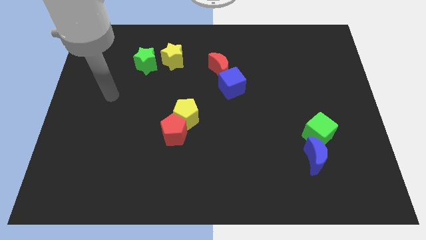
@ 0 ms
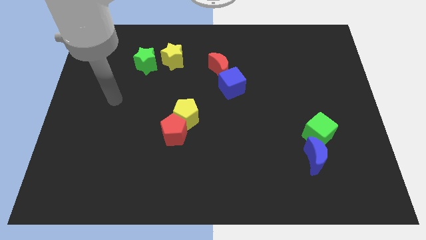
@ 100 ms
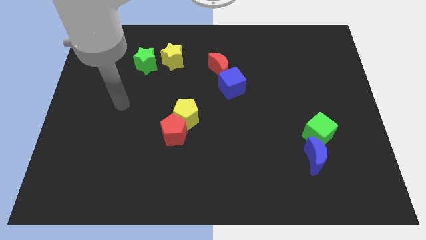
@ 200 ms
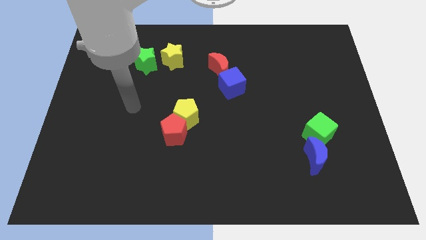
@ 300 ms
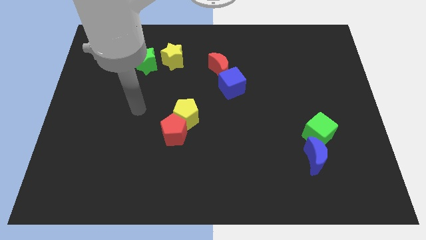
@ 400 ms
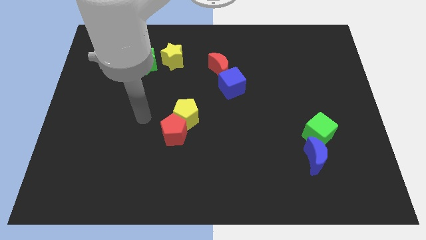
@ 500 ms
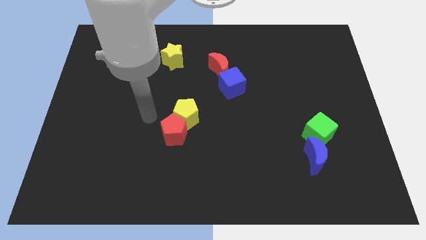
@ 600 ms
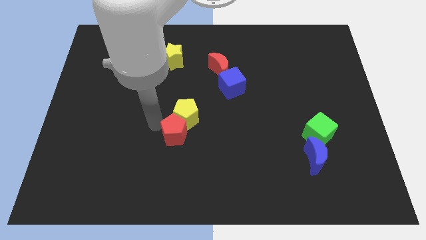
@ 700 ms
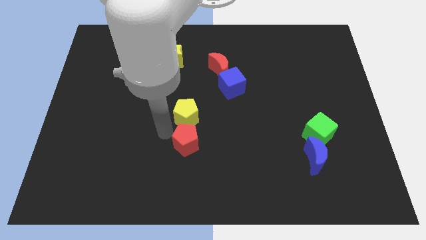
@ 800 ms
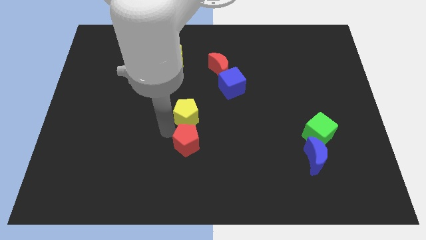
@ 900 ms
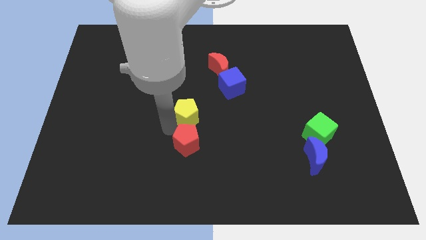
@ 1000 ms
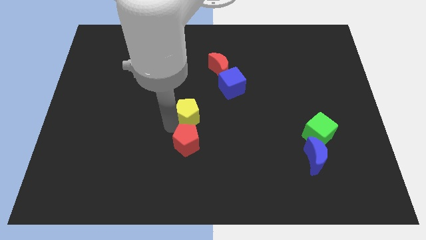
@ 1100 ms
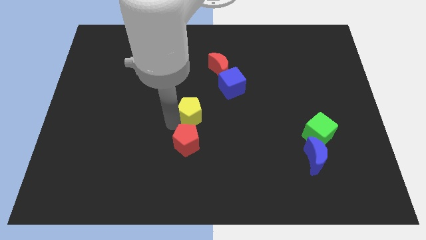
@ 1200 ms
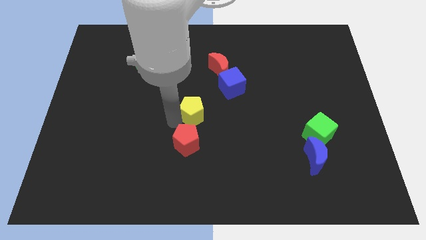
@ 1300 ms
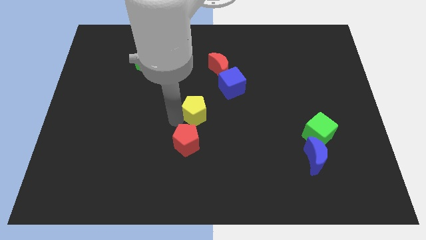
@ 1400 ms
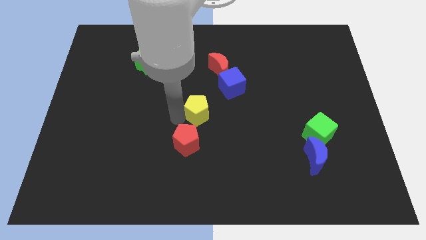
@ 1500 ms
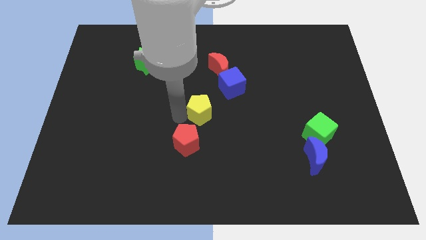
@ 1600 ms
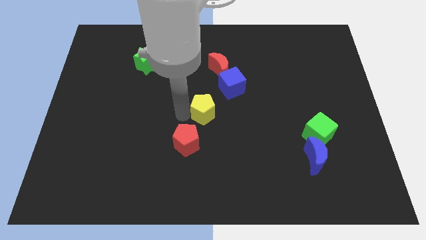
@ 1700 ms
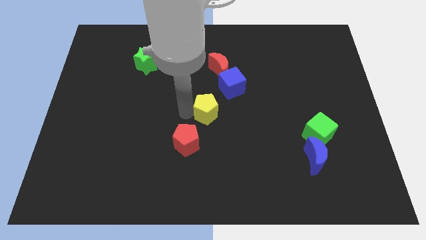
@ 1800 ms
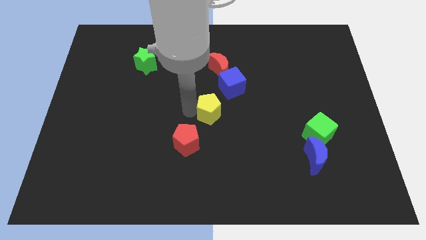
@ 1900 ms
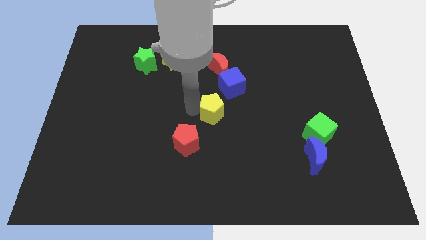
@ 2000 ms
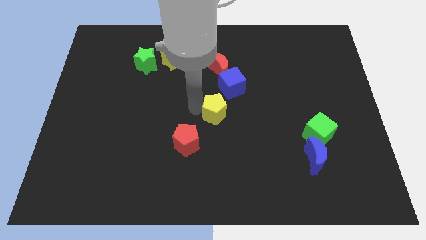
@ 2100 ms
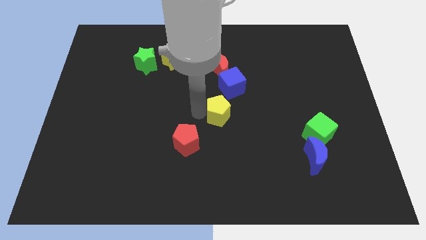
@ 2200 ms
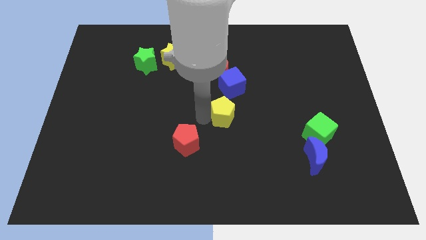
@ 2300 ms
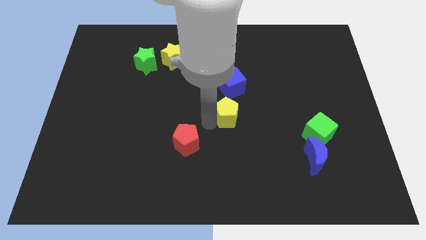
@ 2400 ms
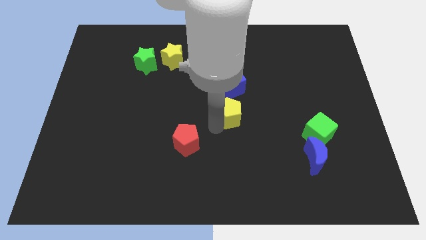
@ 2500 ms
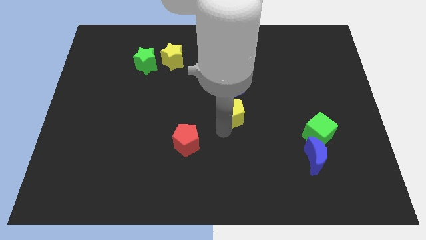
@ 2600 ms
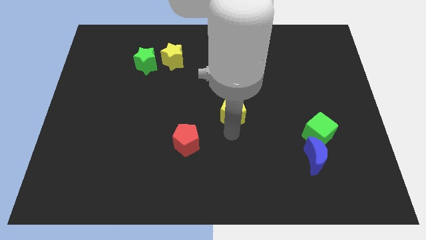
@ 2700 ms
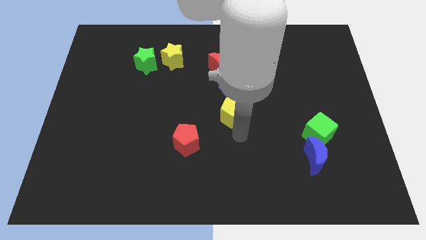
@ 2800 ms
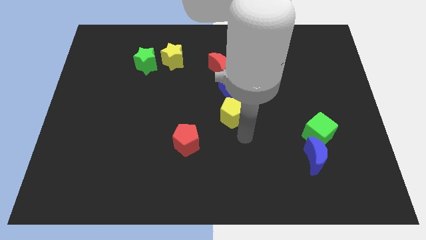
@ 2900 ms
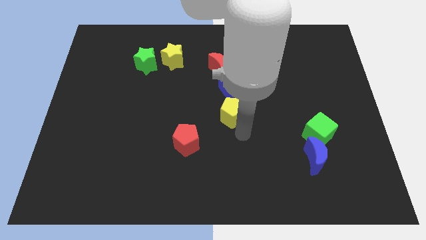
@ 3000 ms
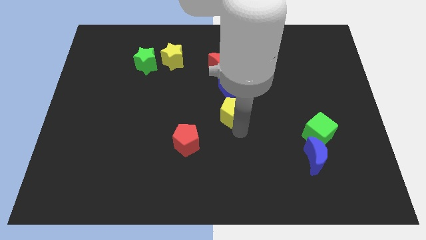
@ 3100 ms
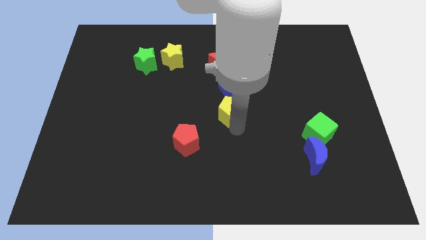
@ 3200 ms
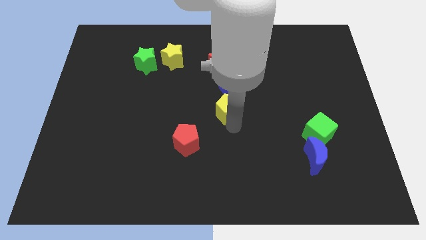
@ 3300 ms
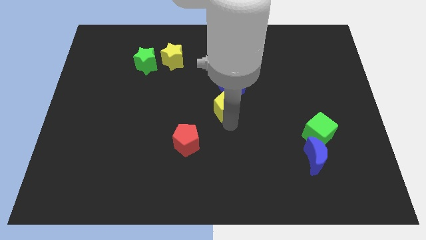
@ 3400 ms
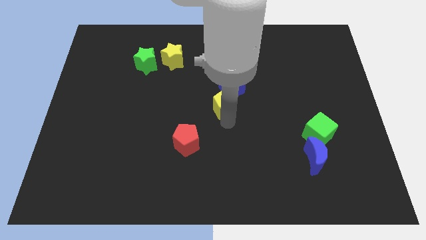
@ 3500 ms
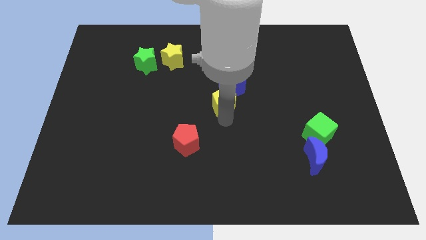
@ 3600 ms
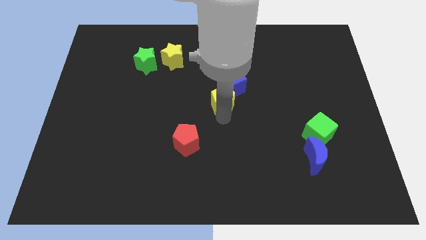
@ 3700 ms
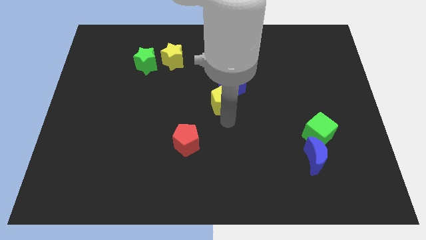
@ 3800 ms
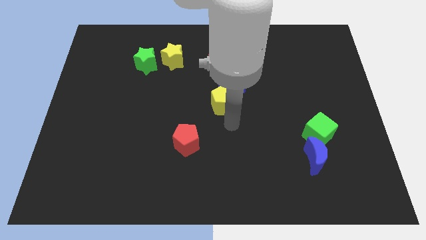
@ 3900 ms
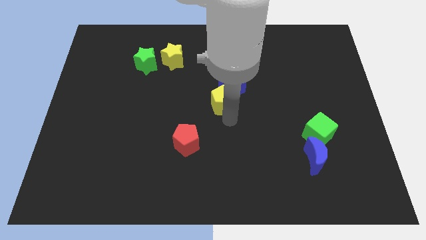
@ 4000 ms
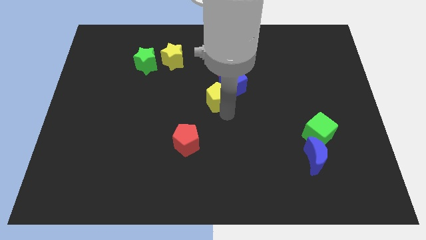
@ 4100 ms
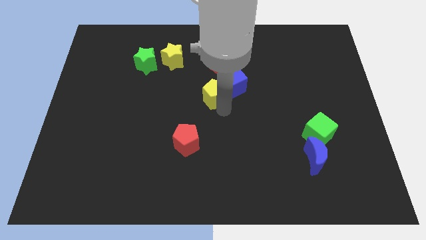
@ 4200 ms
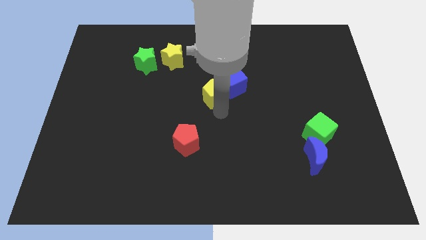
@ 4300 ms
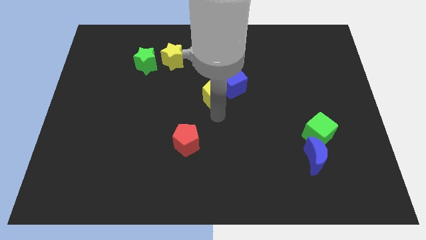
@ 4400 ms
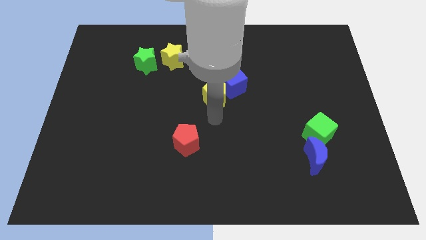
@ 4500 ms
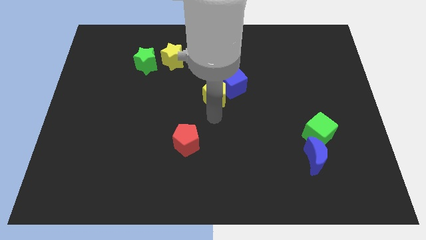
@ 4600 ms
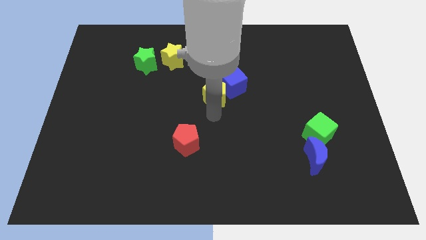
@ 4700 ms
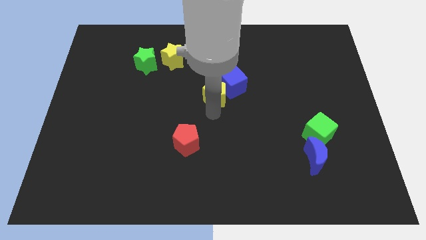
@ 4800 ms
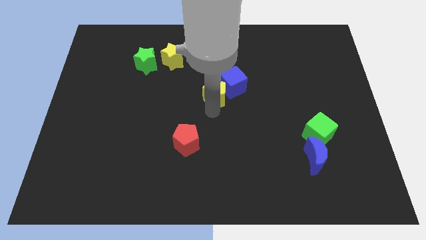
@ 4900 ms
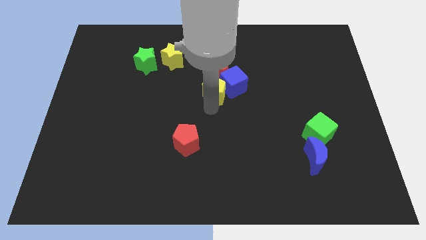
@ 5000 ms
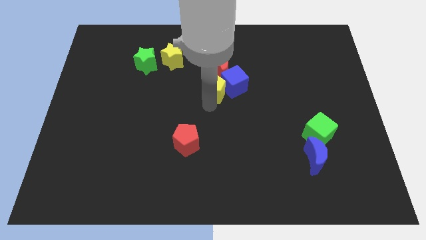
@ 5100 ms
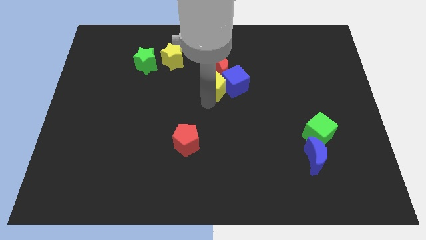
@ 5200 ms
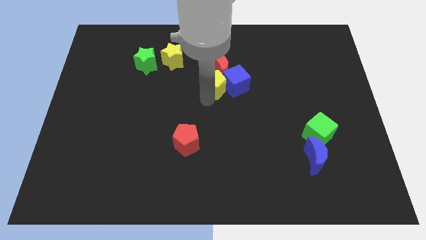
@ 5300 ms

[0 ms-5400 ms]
push the yellow pentagon towards the red moon

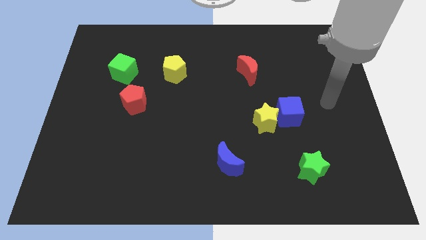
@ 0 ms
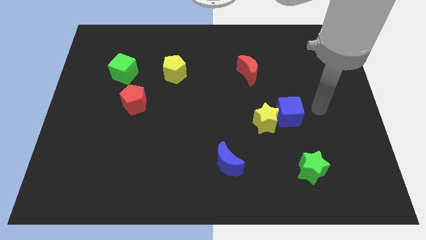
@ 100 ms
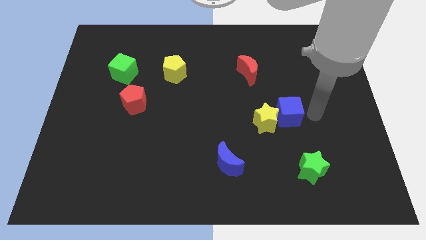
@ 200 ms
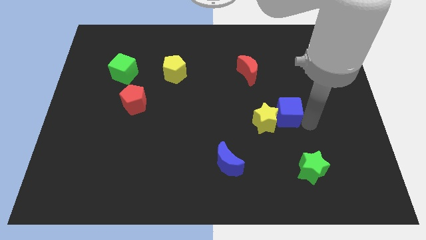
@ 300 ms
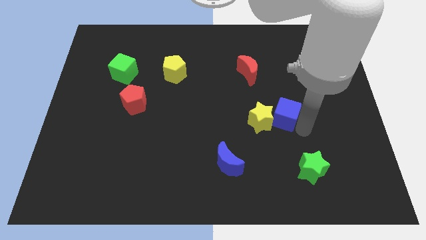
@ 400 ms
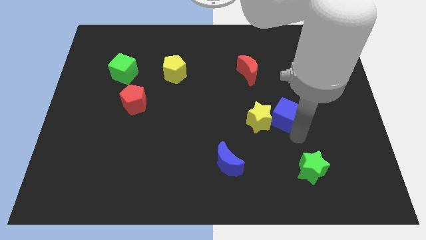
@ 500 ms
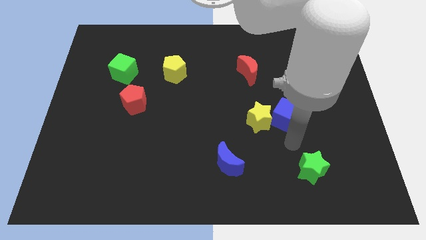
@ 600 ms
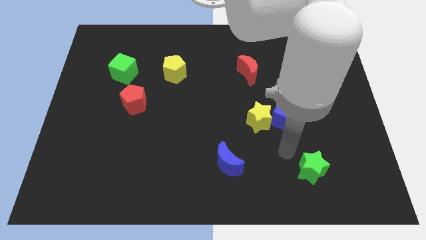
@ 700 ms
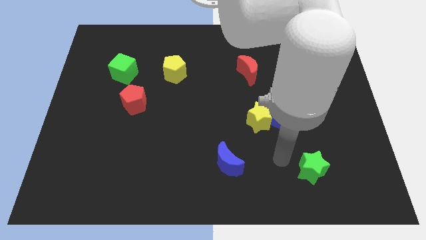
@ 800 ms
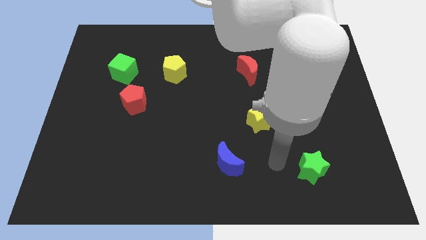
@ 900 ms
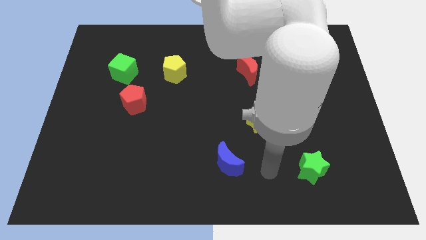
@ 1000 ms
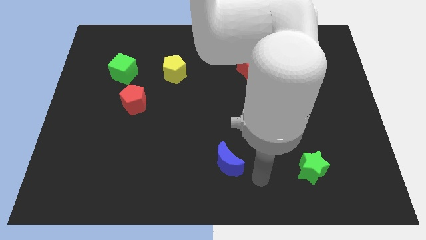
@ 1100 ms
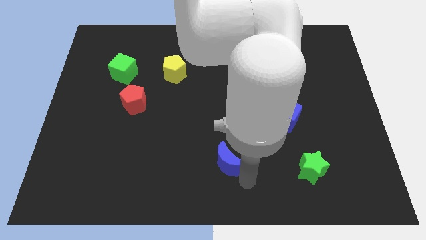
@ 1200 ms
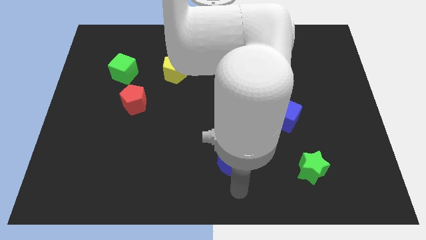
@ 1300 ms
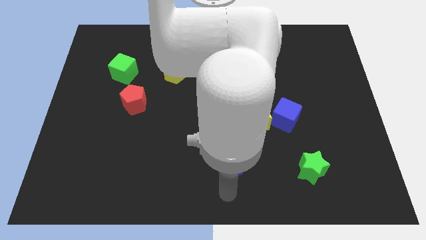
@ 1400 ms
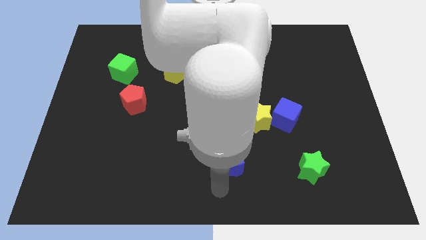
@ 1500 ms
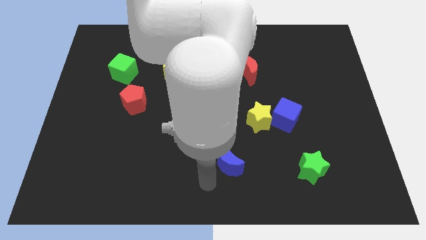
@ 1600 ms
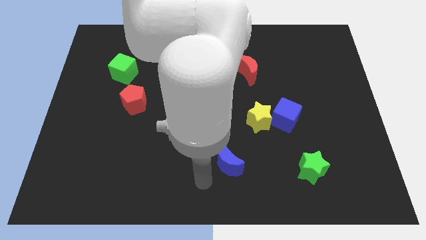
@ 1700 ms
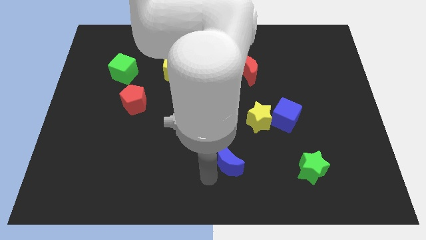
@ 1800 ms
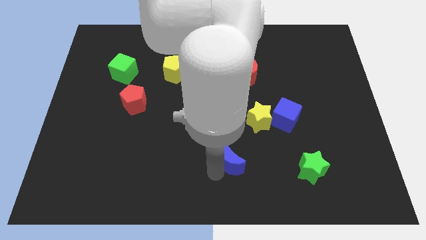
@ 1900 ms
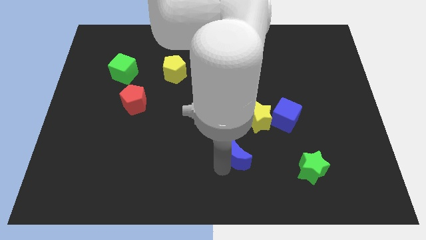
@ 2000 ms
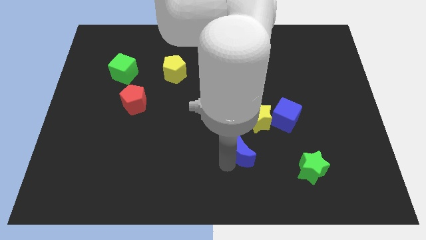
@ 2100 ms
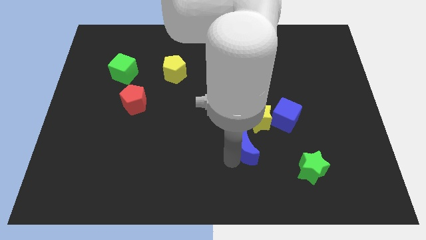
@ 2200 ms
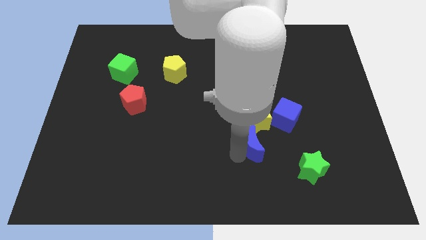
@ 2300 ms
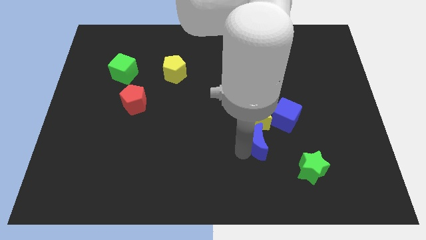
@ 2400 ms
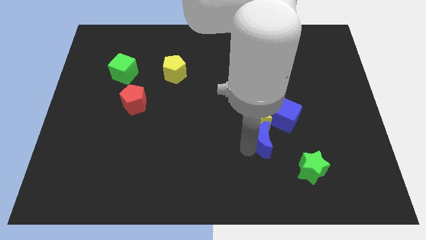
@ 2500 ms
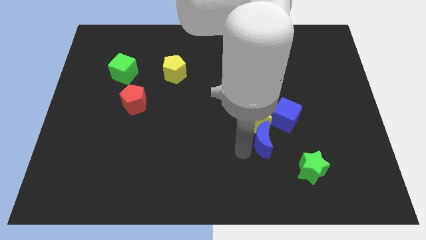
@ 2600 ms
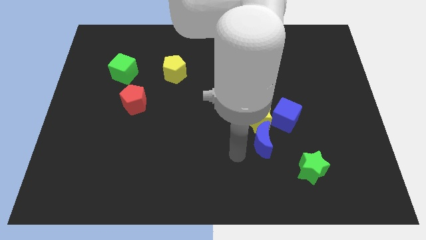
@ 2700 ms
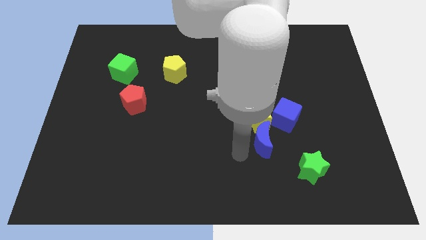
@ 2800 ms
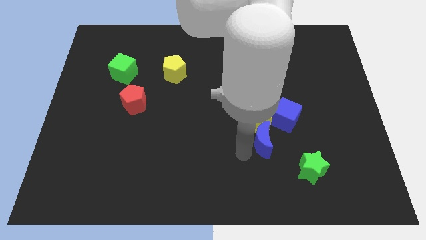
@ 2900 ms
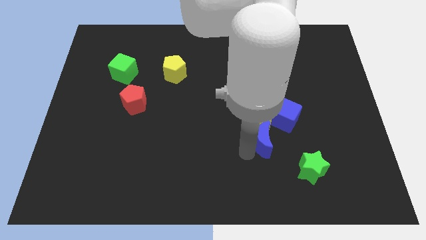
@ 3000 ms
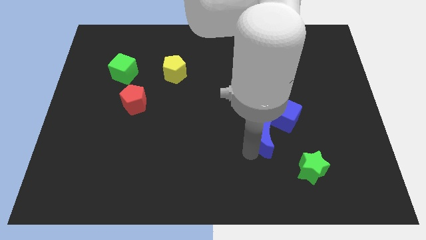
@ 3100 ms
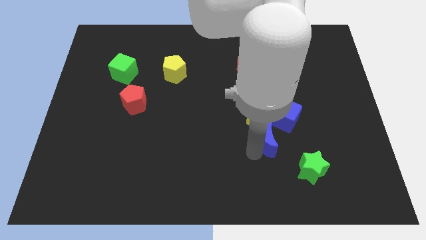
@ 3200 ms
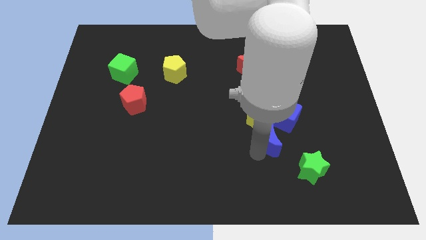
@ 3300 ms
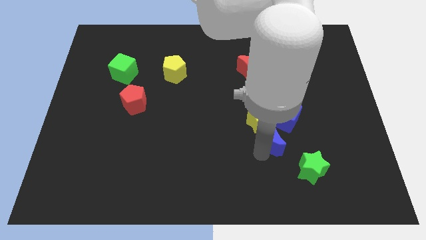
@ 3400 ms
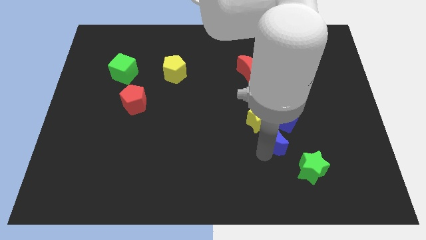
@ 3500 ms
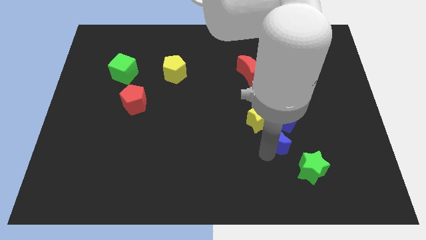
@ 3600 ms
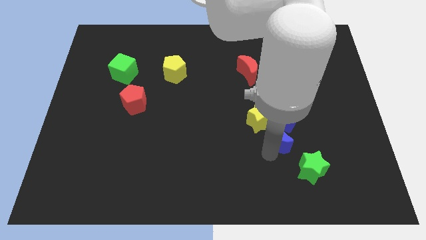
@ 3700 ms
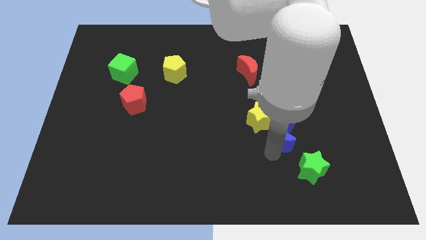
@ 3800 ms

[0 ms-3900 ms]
move the blue moon next to the blue cube
